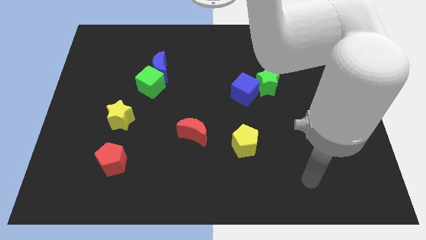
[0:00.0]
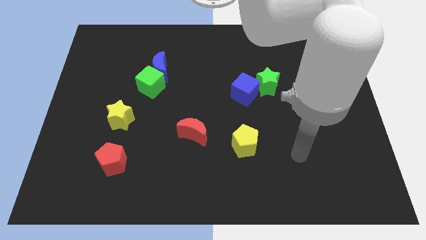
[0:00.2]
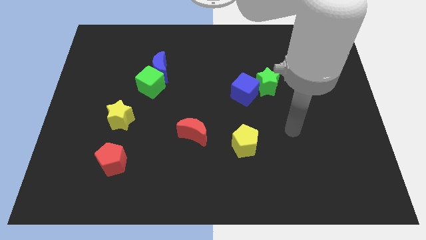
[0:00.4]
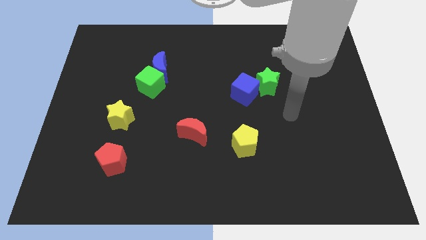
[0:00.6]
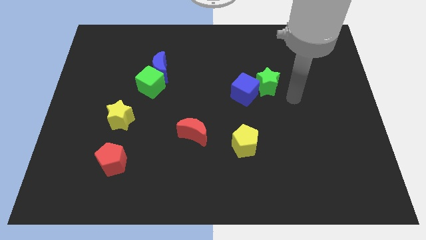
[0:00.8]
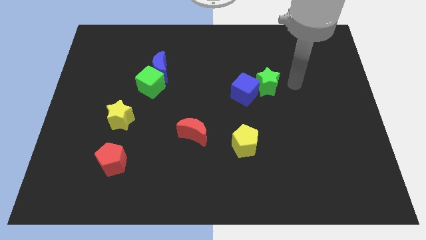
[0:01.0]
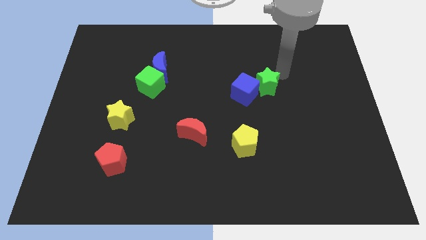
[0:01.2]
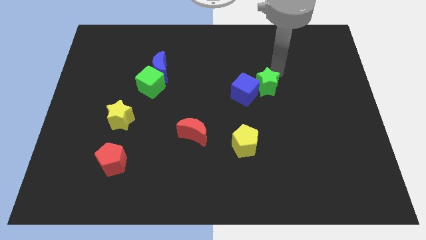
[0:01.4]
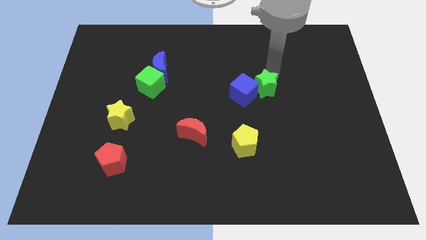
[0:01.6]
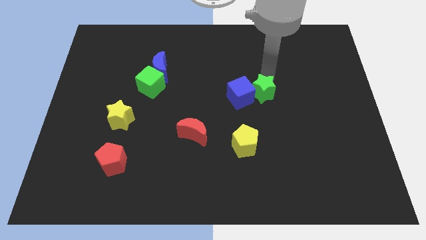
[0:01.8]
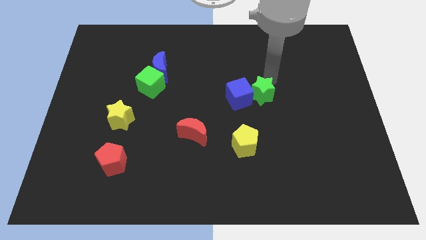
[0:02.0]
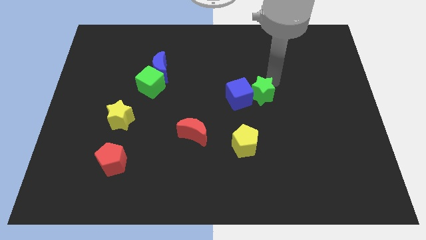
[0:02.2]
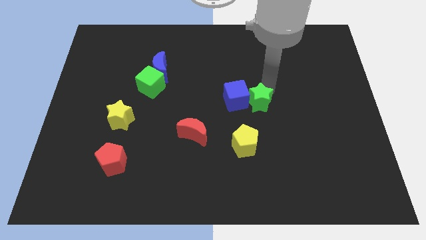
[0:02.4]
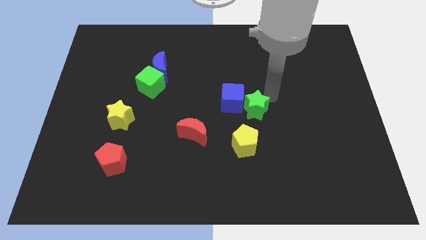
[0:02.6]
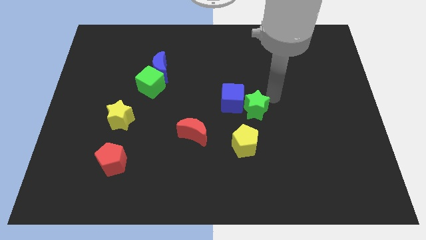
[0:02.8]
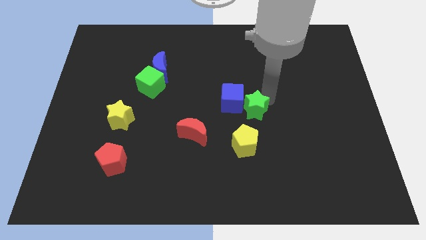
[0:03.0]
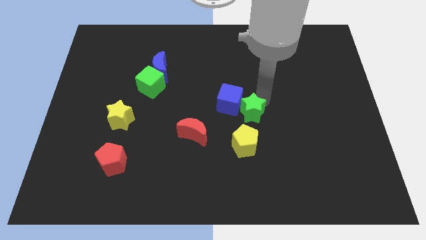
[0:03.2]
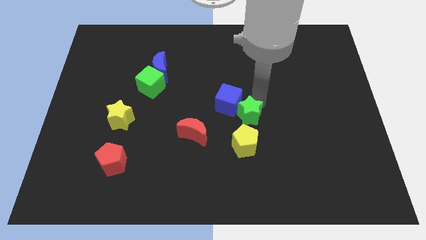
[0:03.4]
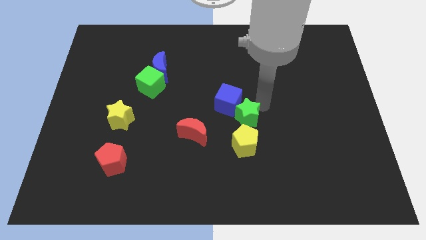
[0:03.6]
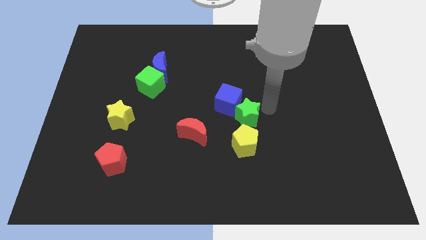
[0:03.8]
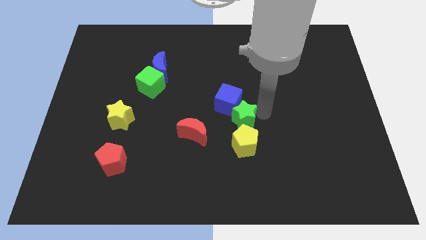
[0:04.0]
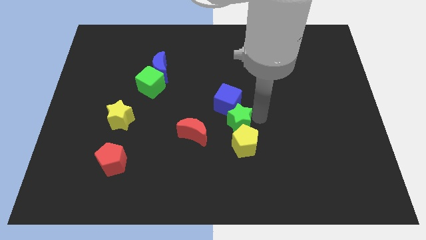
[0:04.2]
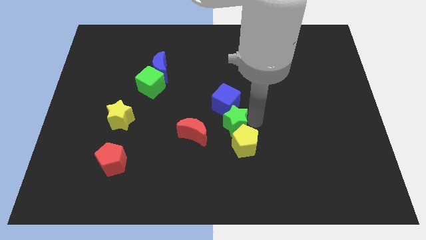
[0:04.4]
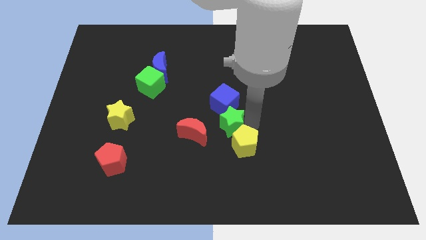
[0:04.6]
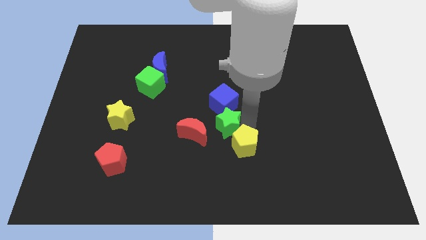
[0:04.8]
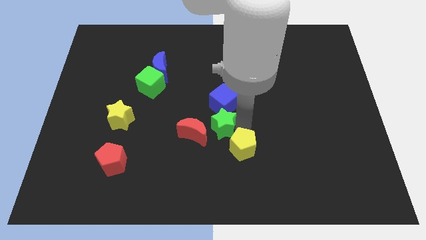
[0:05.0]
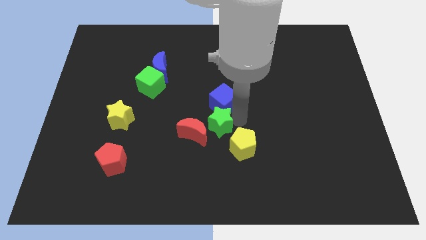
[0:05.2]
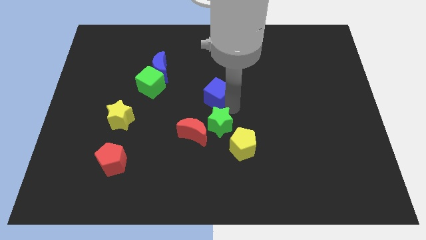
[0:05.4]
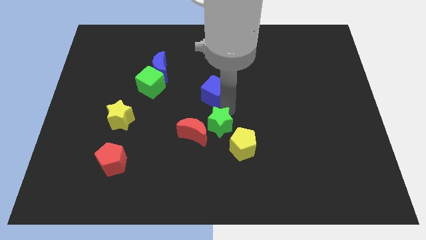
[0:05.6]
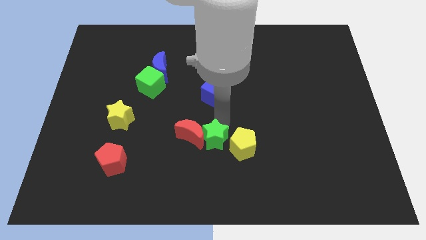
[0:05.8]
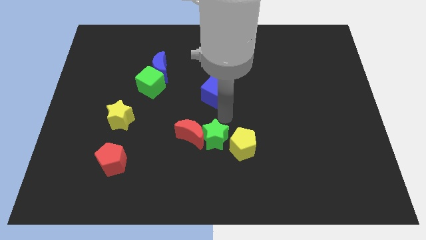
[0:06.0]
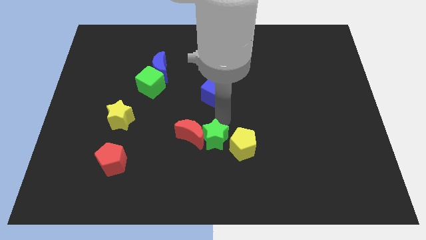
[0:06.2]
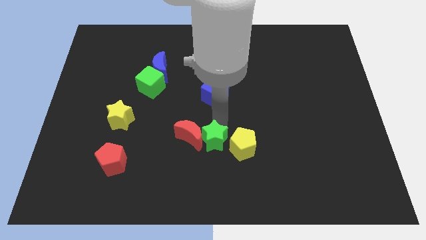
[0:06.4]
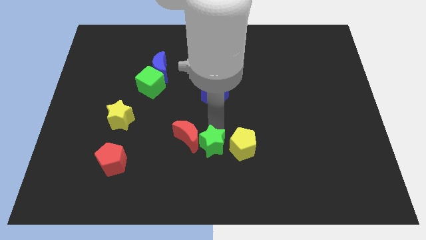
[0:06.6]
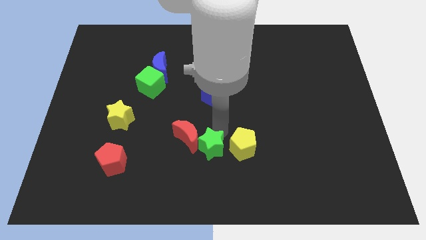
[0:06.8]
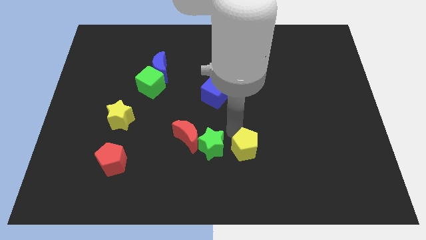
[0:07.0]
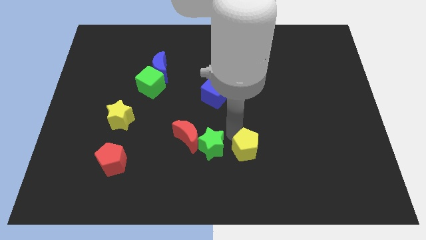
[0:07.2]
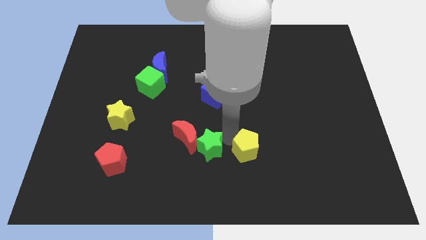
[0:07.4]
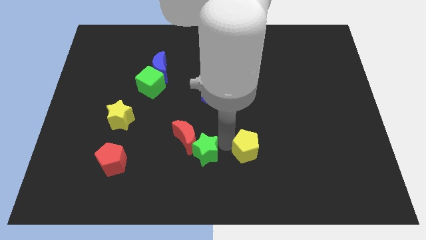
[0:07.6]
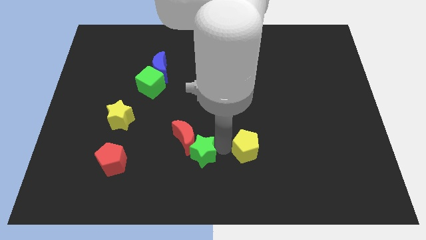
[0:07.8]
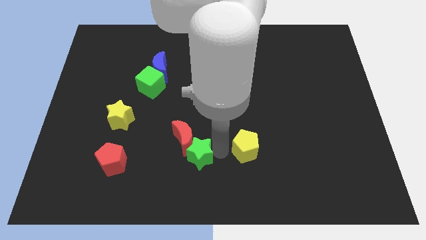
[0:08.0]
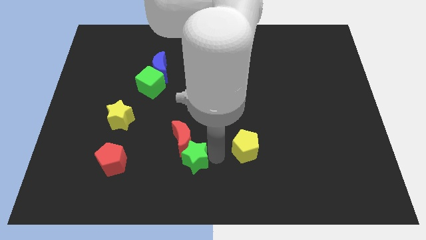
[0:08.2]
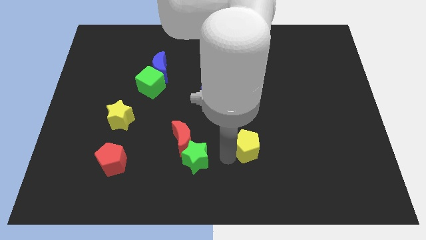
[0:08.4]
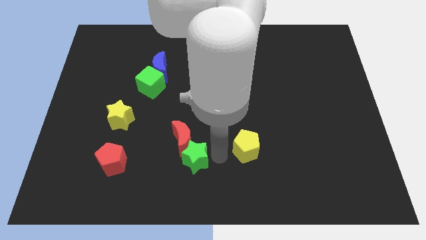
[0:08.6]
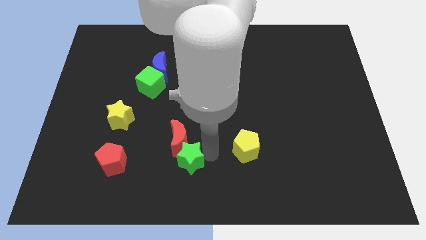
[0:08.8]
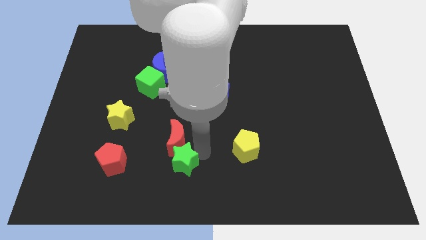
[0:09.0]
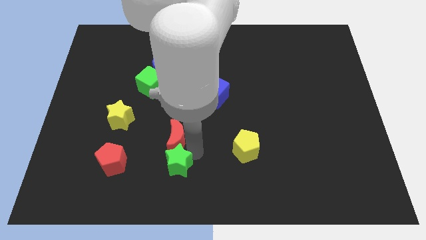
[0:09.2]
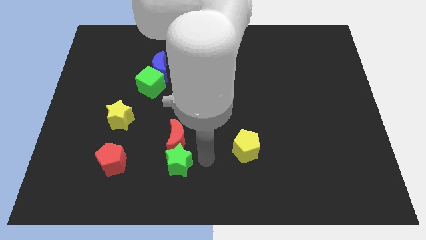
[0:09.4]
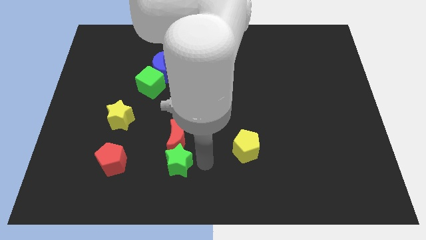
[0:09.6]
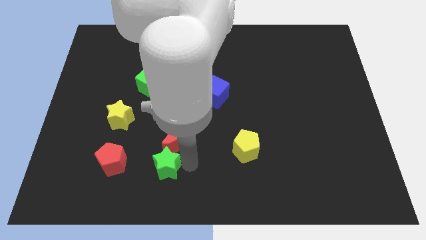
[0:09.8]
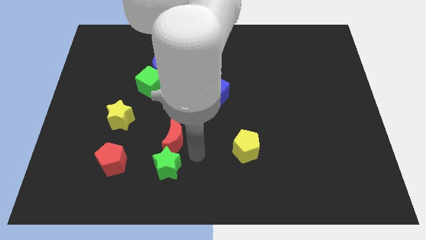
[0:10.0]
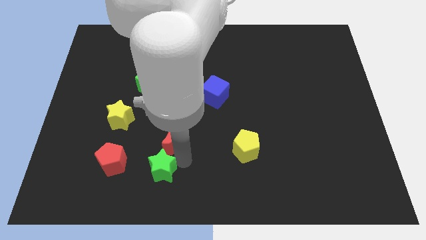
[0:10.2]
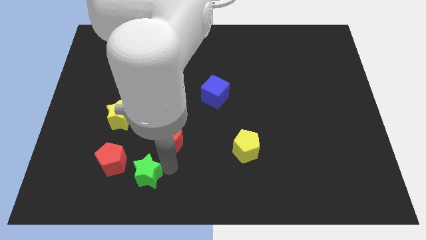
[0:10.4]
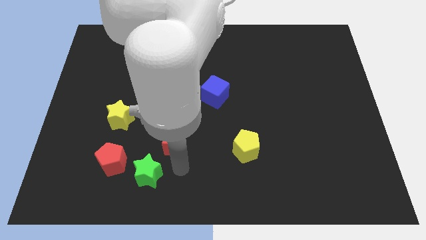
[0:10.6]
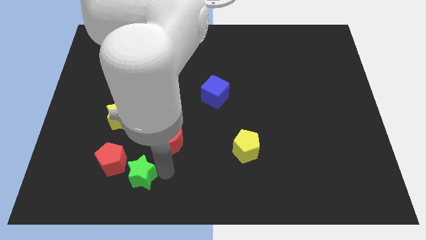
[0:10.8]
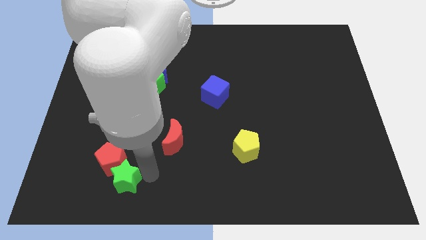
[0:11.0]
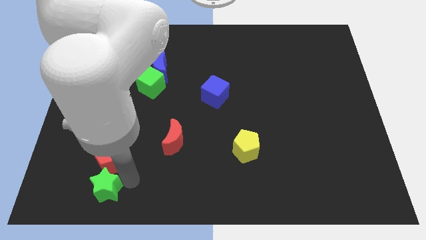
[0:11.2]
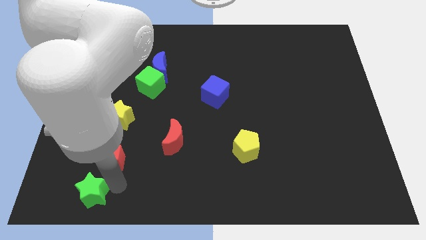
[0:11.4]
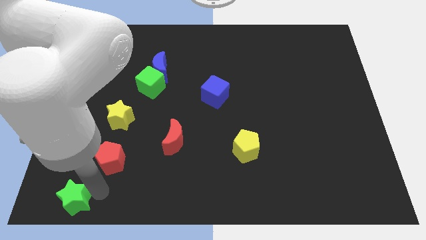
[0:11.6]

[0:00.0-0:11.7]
move the green star to the bottom left of the board

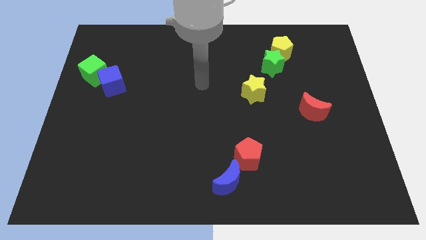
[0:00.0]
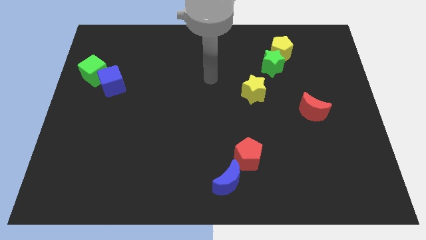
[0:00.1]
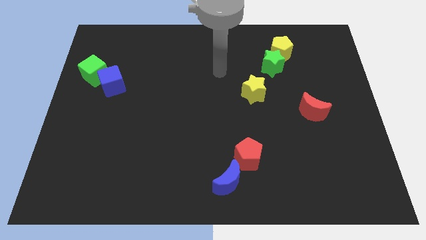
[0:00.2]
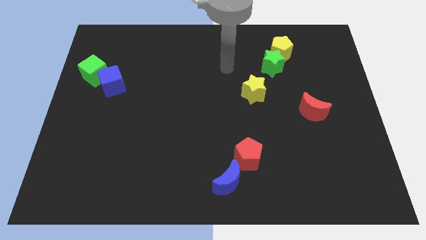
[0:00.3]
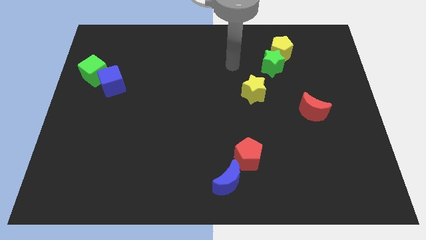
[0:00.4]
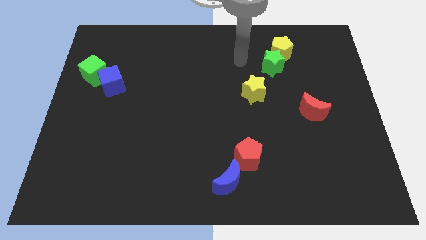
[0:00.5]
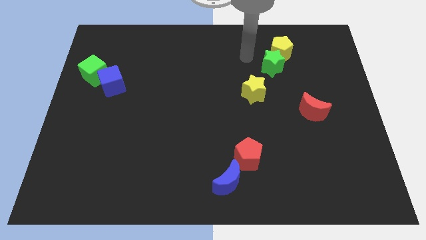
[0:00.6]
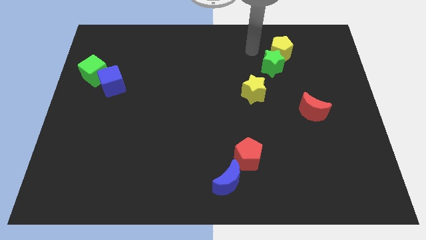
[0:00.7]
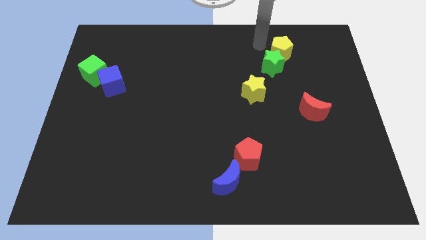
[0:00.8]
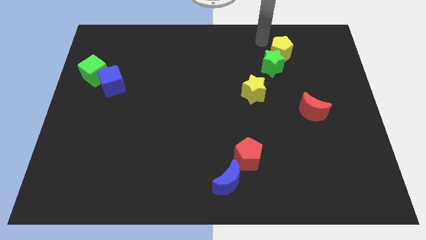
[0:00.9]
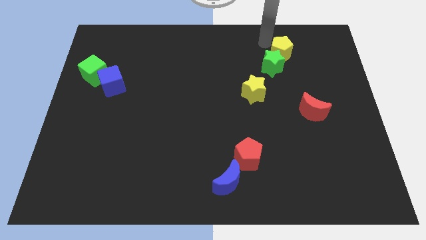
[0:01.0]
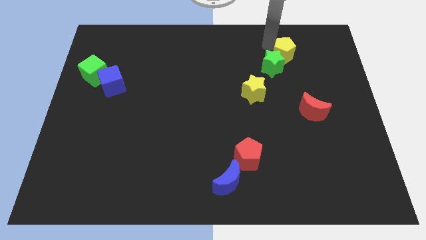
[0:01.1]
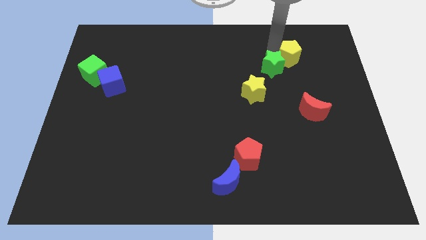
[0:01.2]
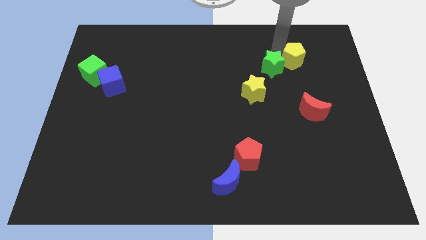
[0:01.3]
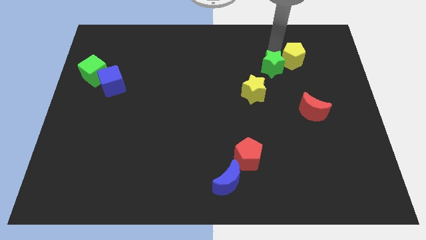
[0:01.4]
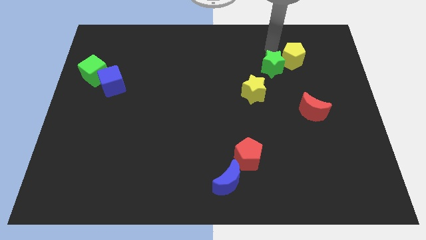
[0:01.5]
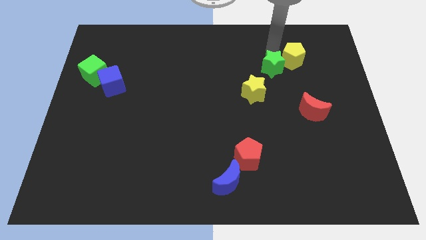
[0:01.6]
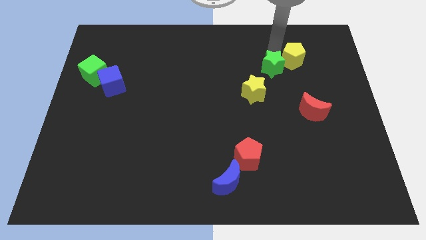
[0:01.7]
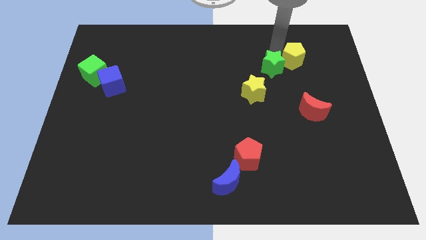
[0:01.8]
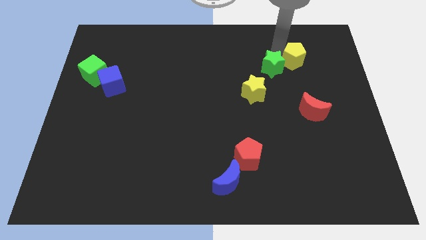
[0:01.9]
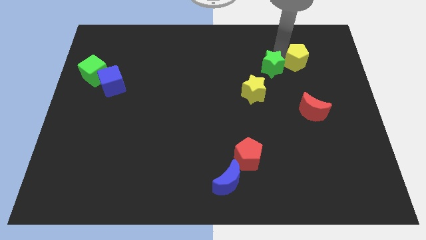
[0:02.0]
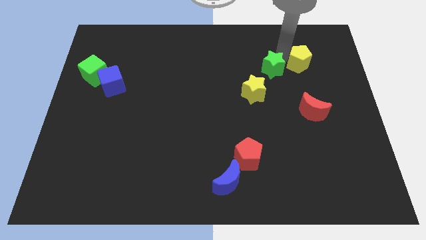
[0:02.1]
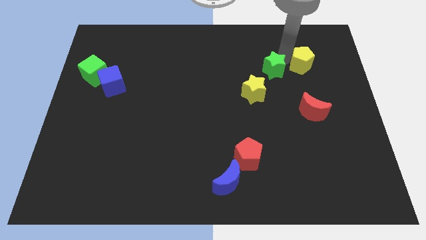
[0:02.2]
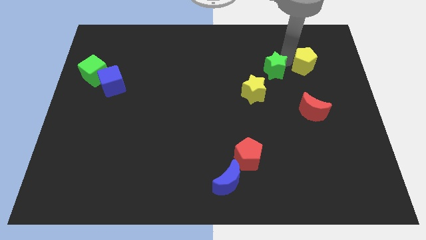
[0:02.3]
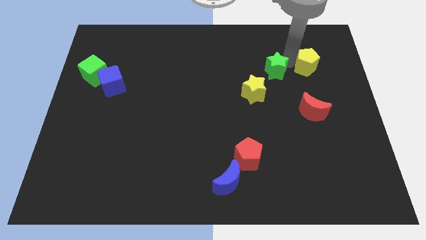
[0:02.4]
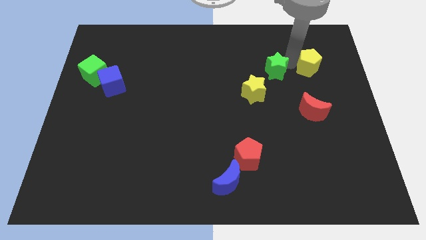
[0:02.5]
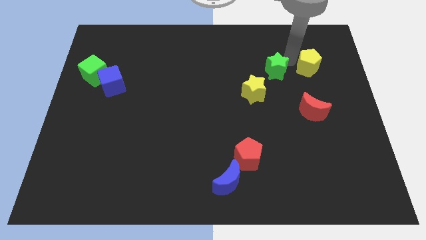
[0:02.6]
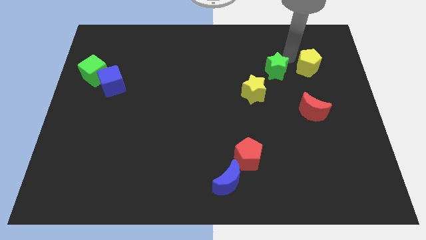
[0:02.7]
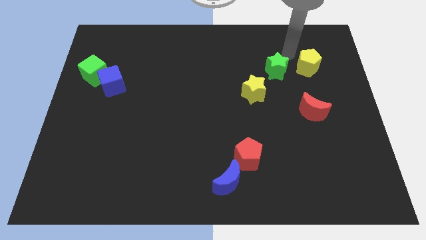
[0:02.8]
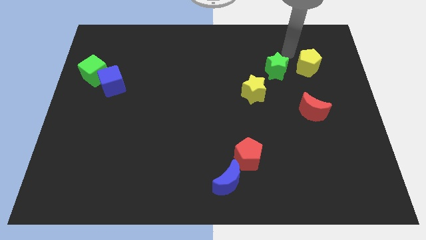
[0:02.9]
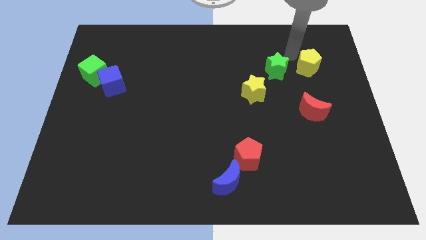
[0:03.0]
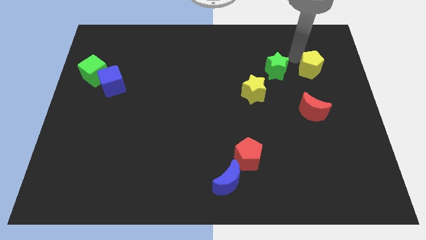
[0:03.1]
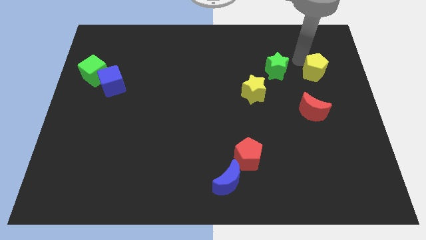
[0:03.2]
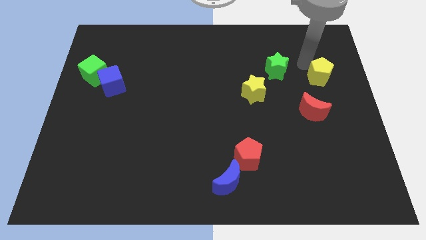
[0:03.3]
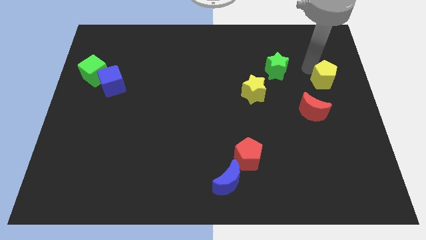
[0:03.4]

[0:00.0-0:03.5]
put the yellow pentagon to the right side
